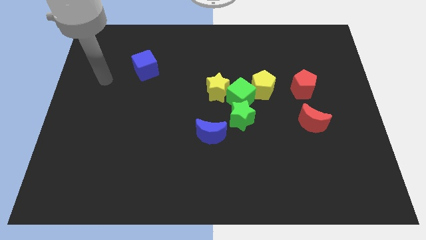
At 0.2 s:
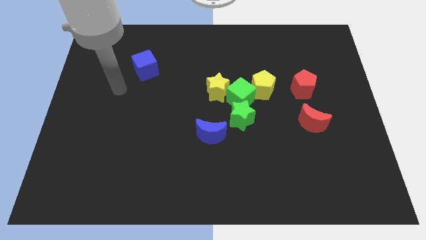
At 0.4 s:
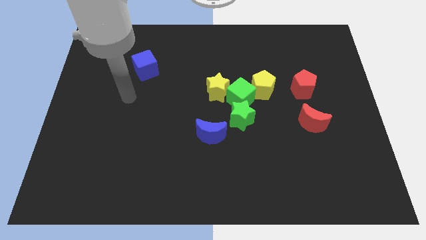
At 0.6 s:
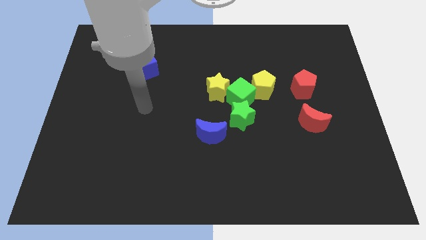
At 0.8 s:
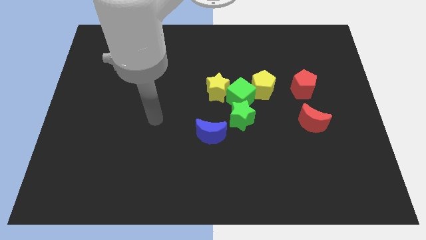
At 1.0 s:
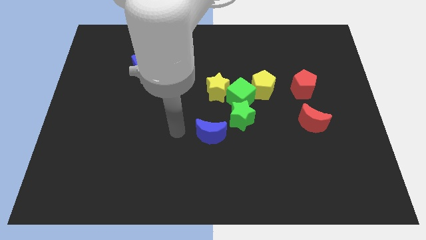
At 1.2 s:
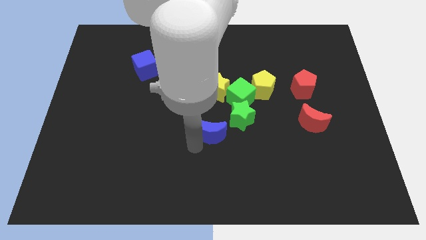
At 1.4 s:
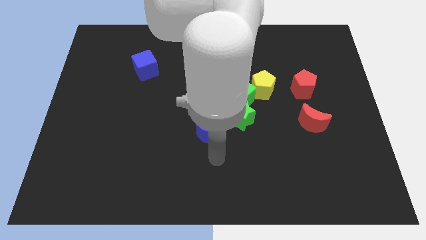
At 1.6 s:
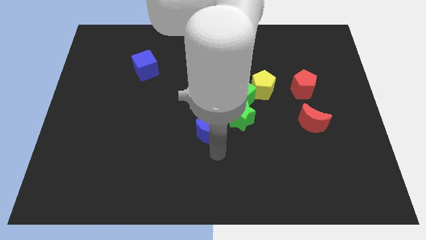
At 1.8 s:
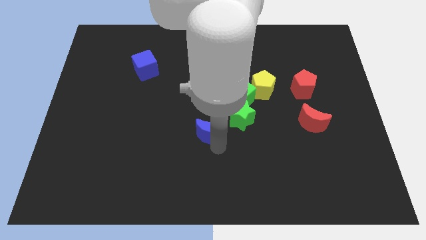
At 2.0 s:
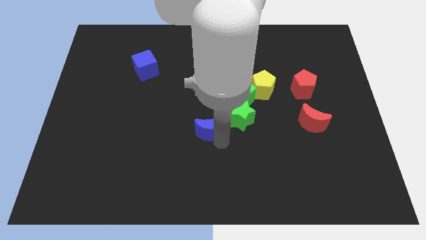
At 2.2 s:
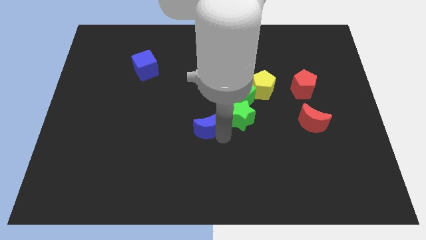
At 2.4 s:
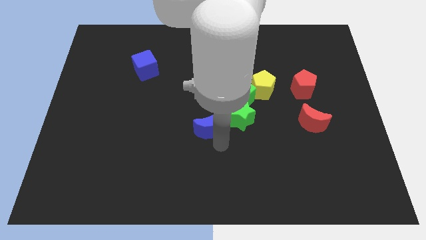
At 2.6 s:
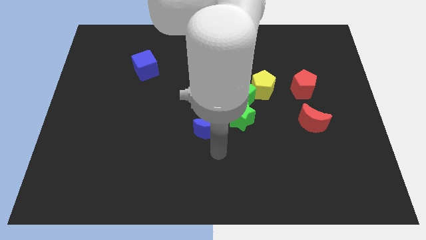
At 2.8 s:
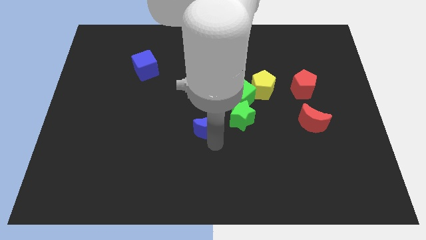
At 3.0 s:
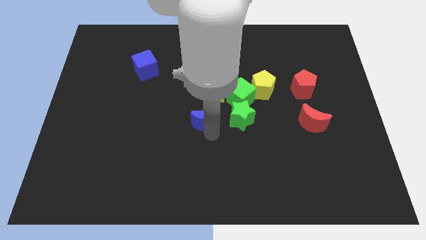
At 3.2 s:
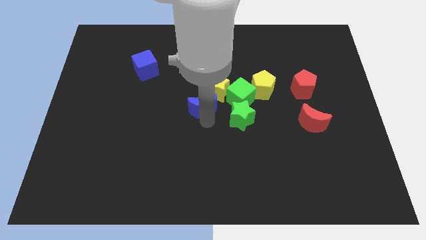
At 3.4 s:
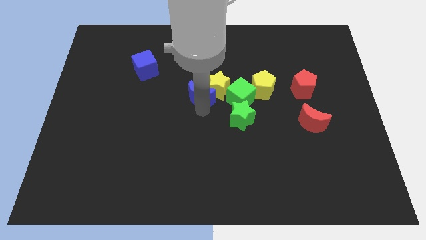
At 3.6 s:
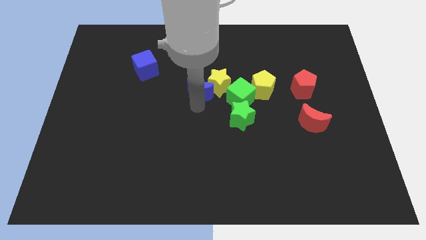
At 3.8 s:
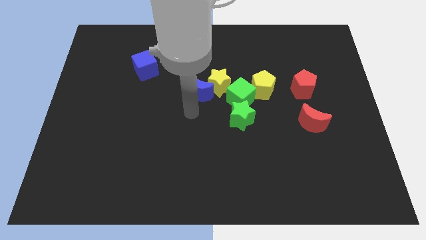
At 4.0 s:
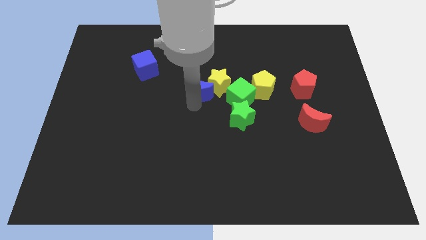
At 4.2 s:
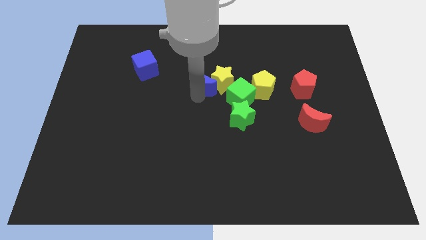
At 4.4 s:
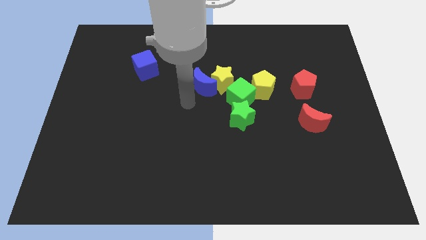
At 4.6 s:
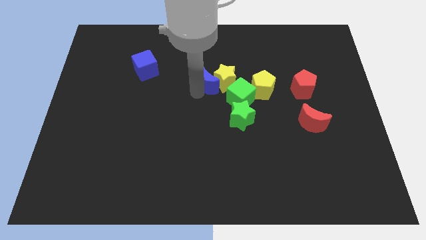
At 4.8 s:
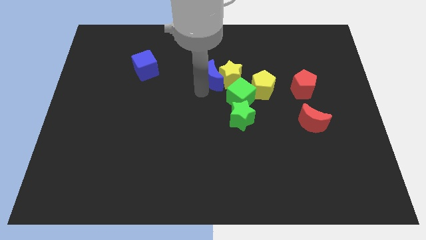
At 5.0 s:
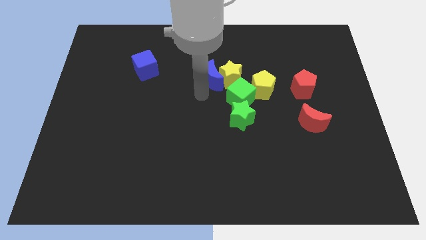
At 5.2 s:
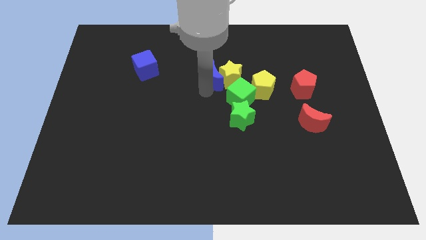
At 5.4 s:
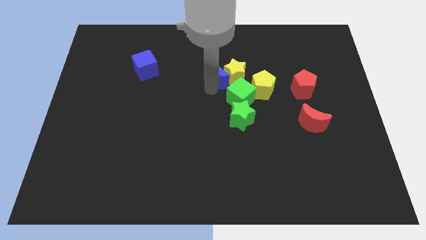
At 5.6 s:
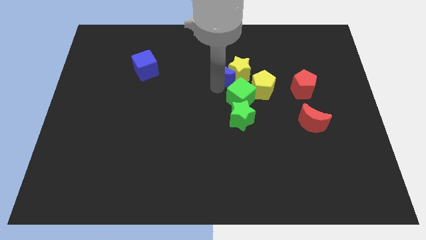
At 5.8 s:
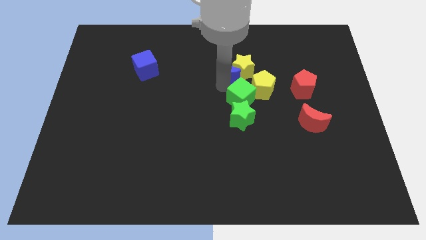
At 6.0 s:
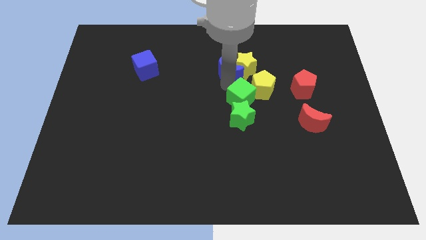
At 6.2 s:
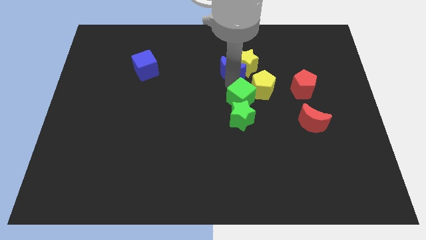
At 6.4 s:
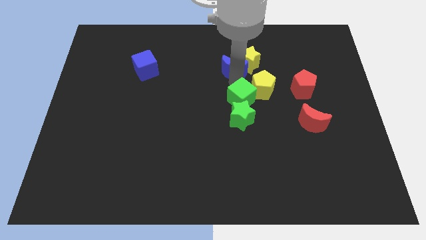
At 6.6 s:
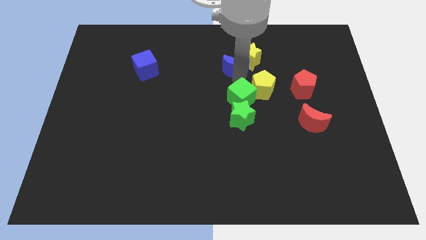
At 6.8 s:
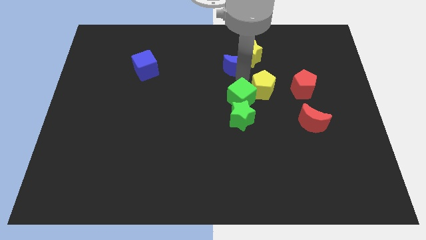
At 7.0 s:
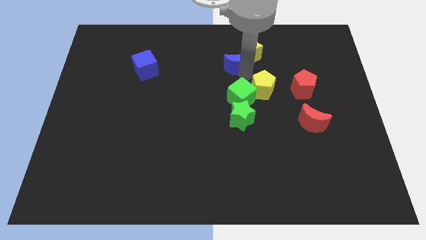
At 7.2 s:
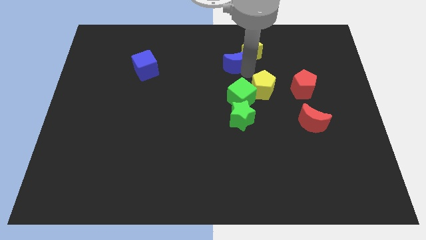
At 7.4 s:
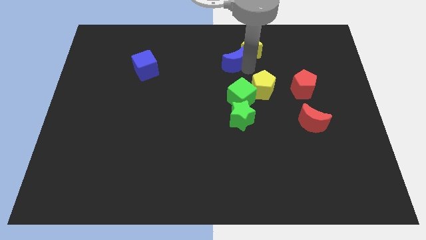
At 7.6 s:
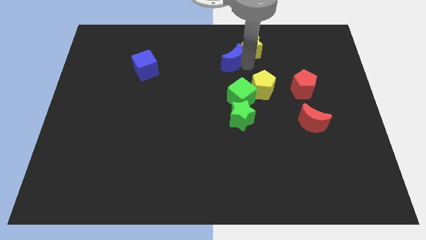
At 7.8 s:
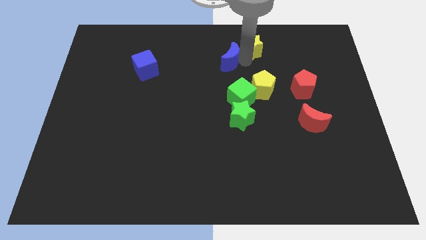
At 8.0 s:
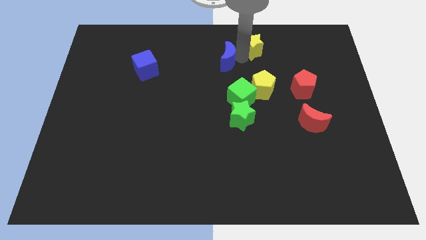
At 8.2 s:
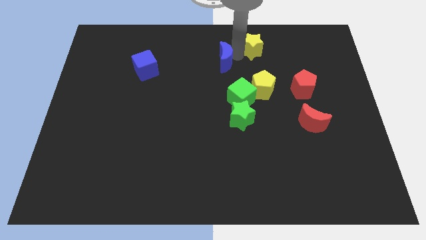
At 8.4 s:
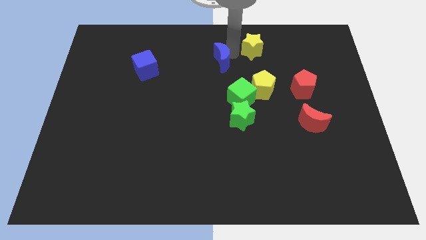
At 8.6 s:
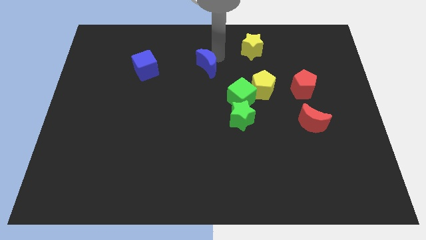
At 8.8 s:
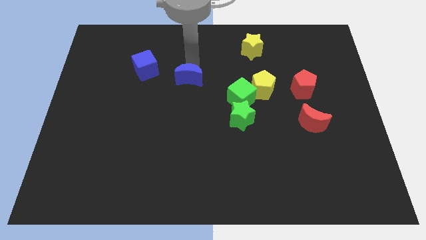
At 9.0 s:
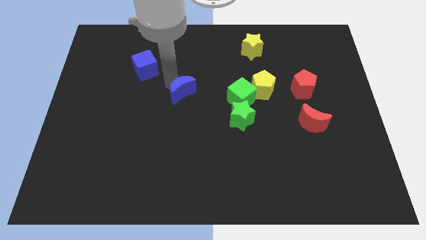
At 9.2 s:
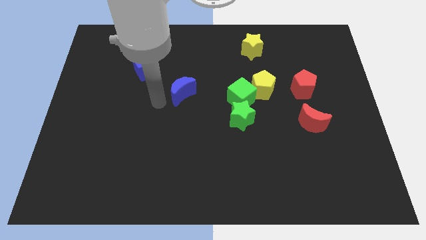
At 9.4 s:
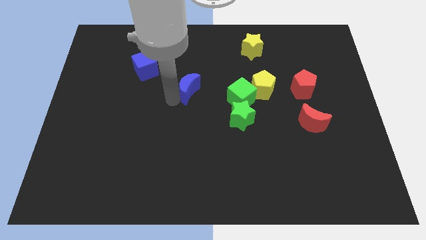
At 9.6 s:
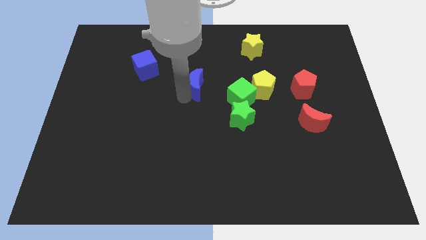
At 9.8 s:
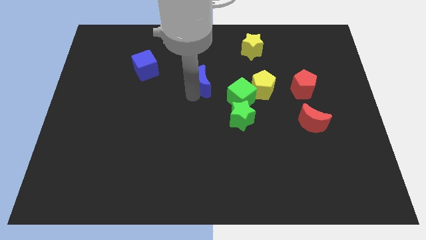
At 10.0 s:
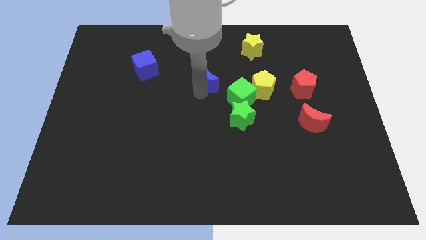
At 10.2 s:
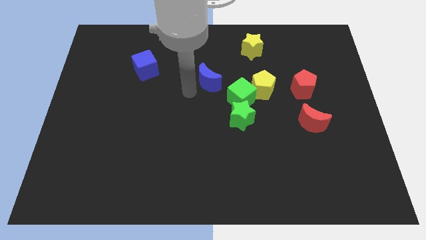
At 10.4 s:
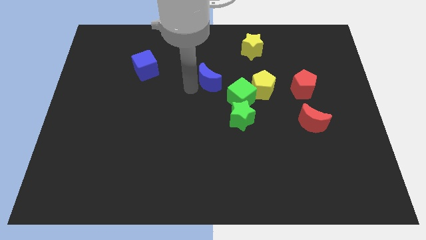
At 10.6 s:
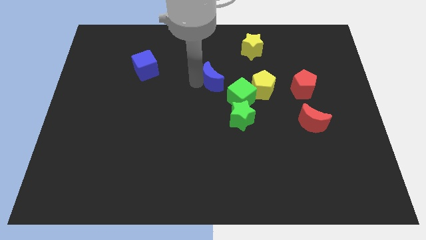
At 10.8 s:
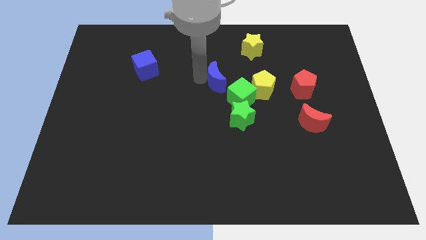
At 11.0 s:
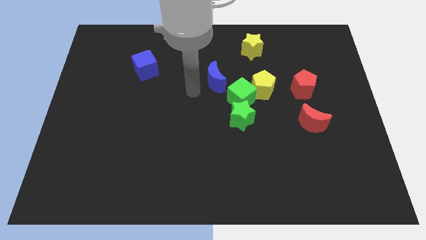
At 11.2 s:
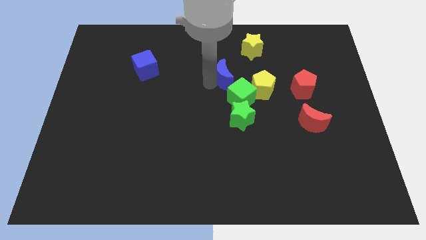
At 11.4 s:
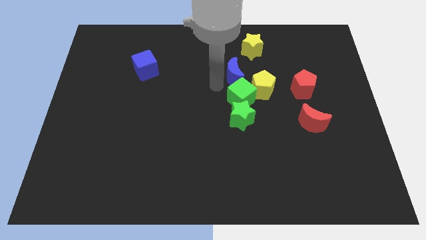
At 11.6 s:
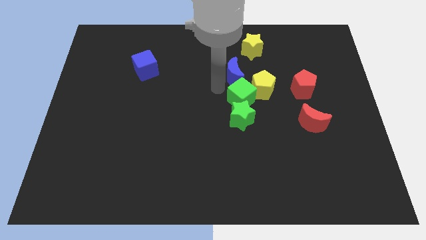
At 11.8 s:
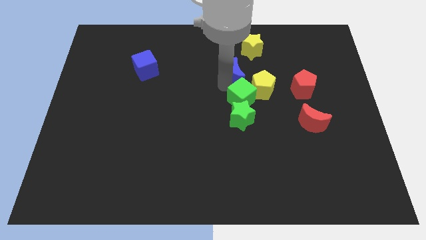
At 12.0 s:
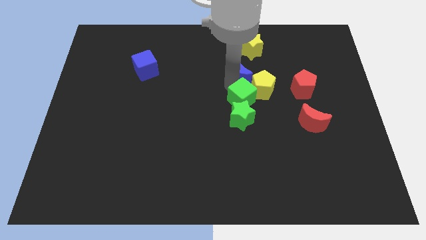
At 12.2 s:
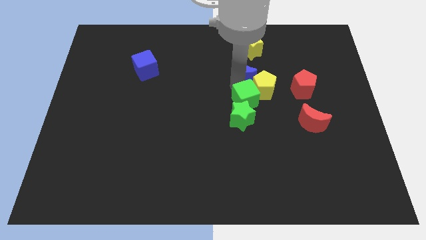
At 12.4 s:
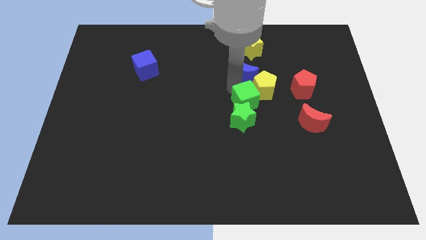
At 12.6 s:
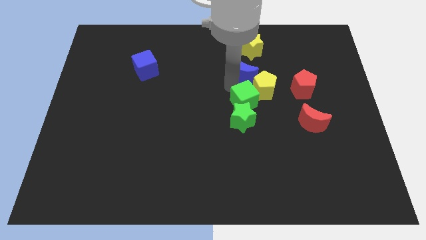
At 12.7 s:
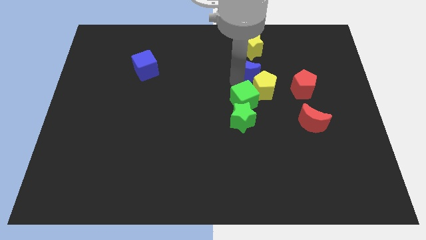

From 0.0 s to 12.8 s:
put the blue moon to the top side of the yellow pentagon

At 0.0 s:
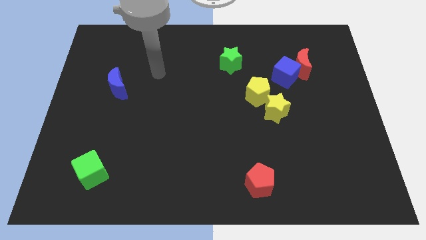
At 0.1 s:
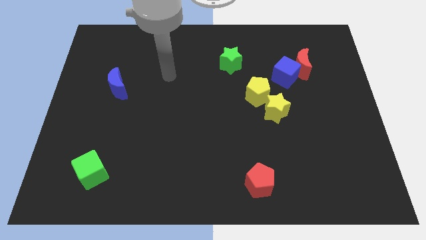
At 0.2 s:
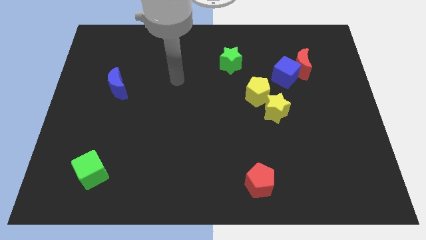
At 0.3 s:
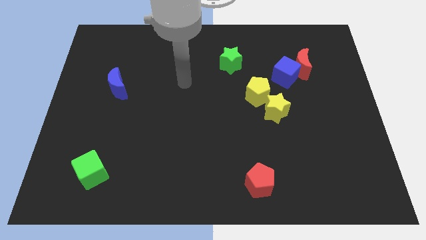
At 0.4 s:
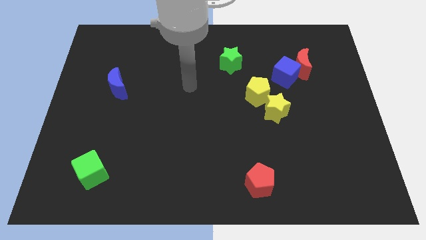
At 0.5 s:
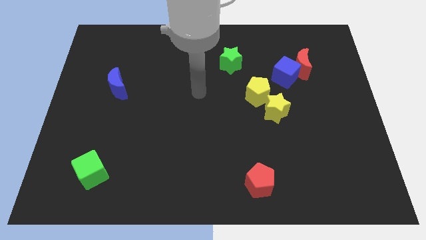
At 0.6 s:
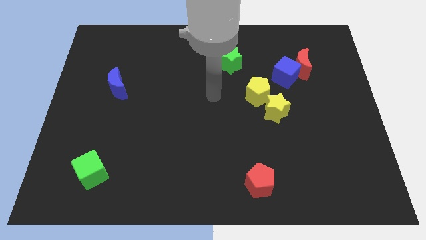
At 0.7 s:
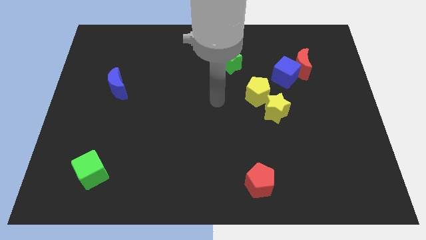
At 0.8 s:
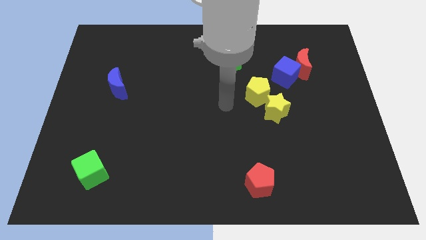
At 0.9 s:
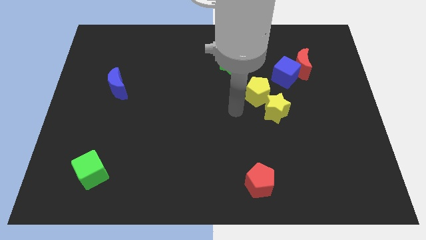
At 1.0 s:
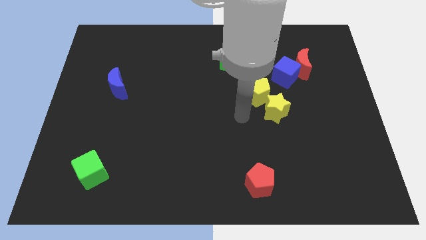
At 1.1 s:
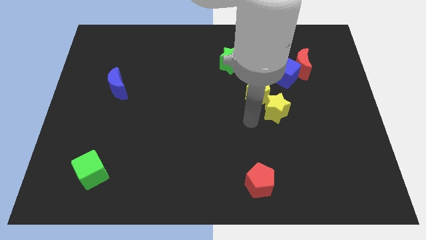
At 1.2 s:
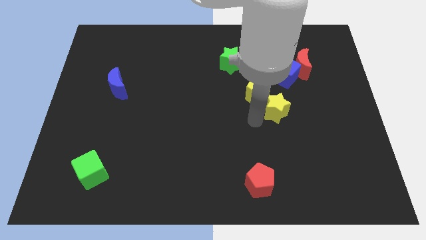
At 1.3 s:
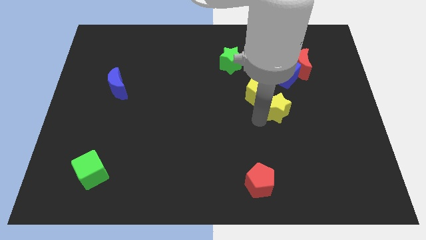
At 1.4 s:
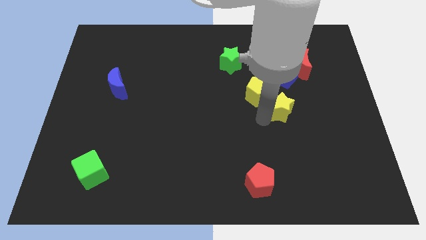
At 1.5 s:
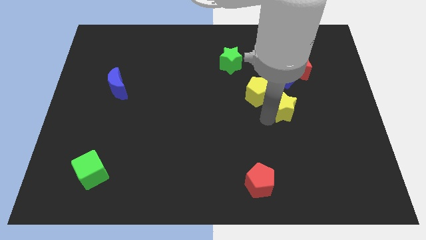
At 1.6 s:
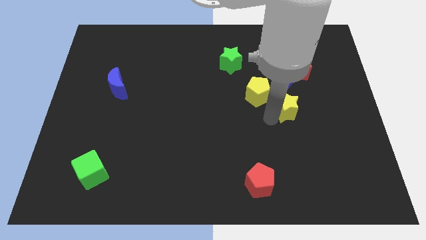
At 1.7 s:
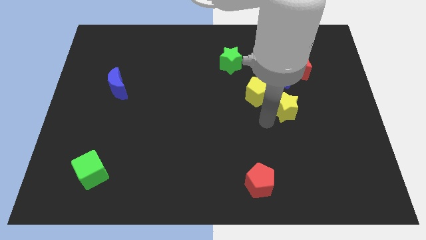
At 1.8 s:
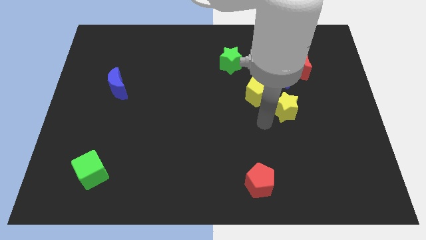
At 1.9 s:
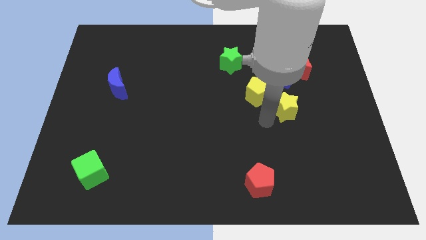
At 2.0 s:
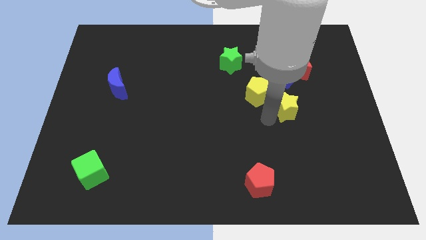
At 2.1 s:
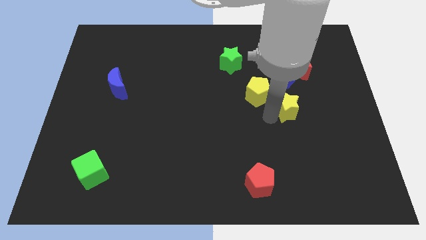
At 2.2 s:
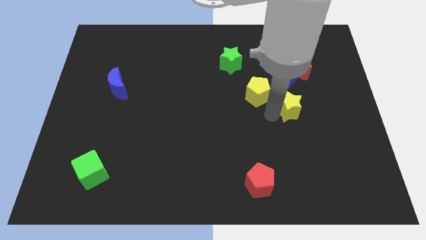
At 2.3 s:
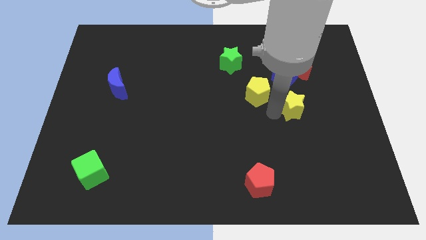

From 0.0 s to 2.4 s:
move the yellow star to the bottom side of the red moon
